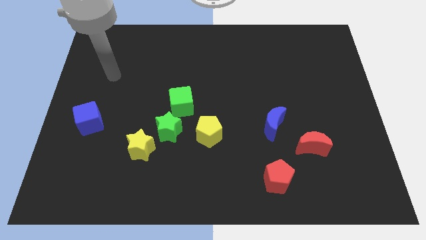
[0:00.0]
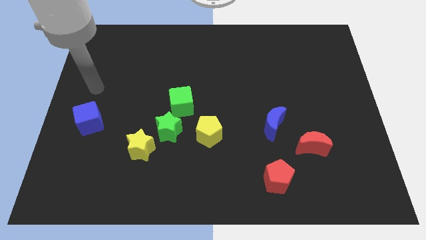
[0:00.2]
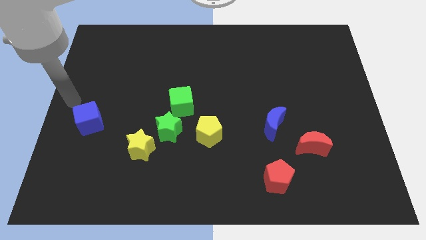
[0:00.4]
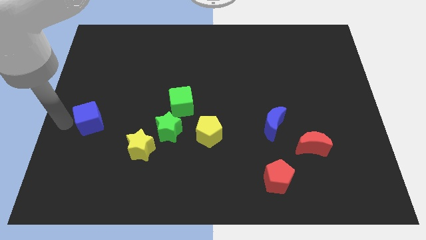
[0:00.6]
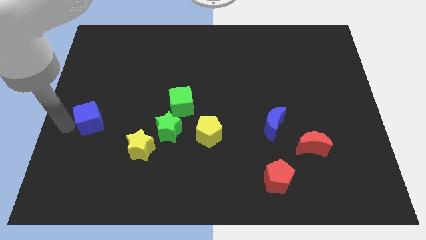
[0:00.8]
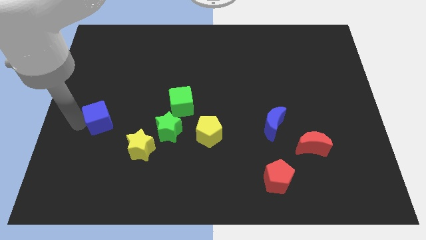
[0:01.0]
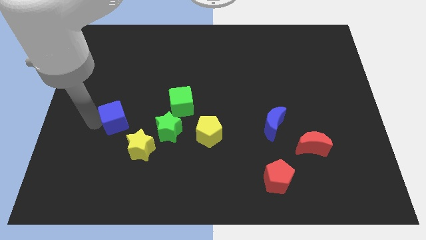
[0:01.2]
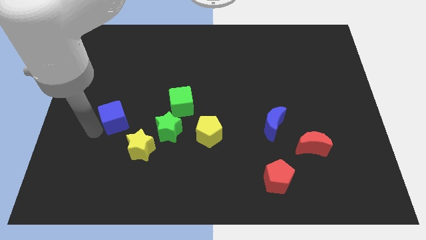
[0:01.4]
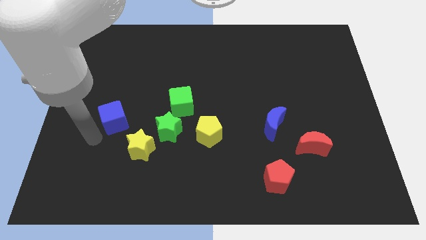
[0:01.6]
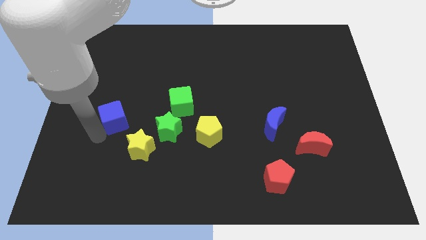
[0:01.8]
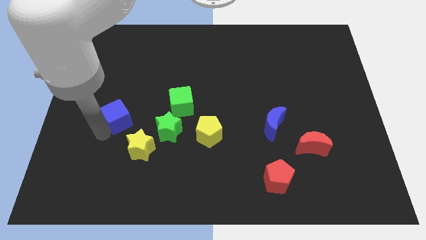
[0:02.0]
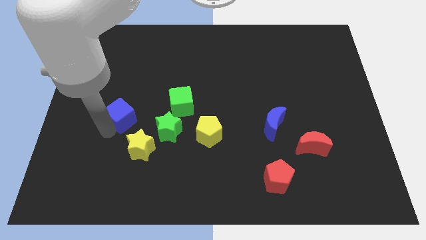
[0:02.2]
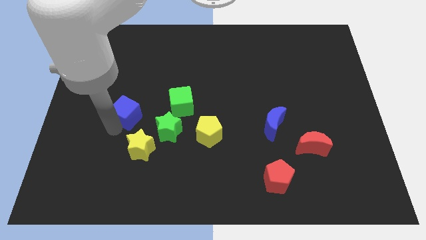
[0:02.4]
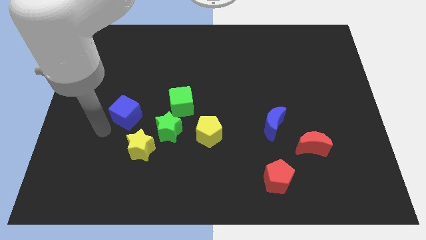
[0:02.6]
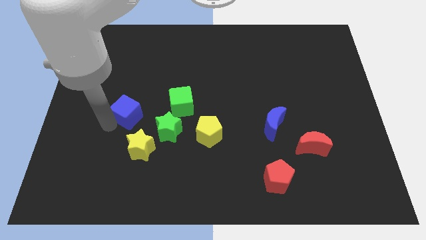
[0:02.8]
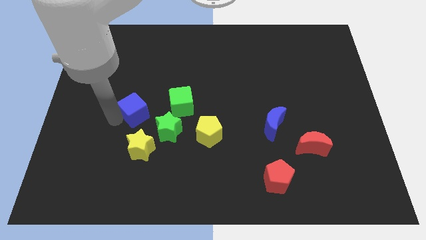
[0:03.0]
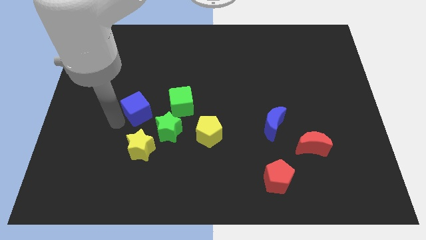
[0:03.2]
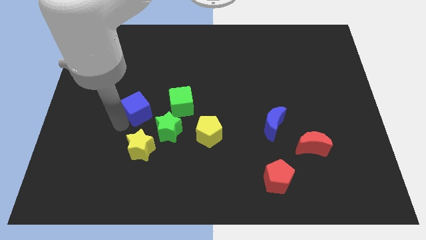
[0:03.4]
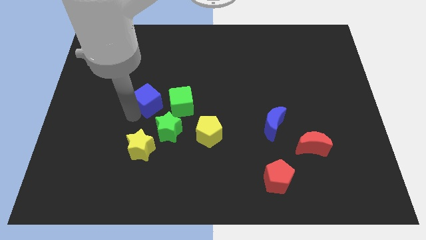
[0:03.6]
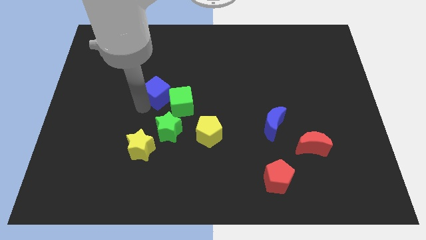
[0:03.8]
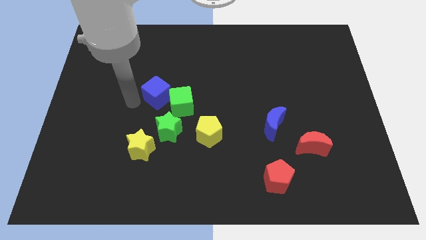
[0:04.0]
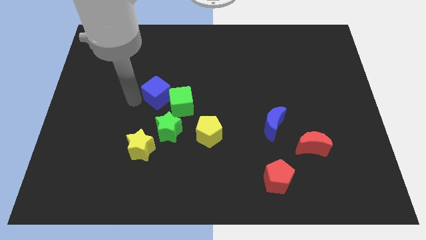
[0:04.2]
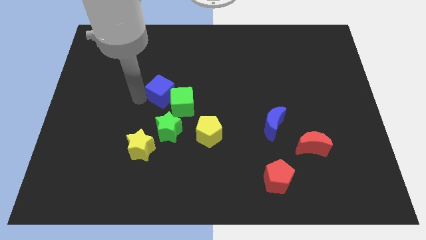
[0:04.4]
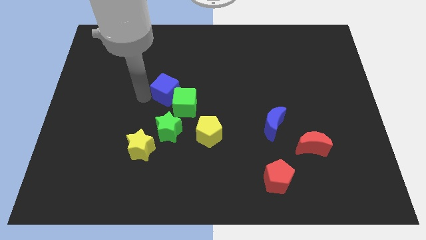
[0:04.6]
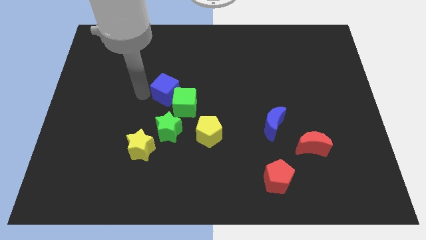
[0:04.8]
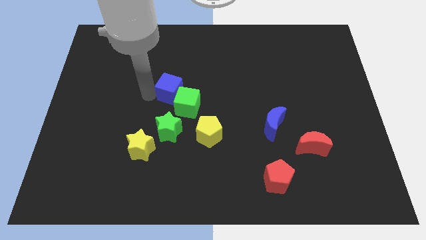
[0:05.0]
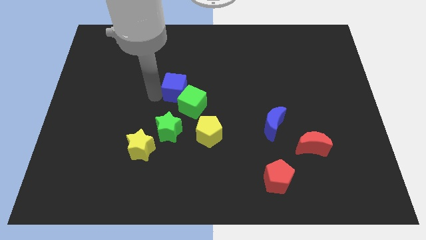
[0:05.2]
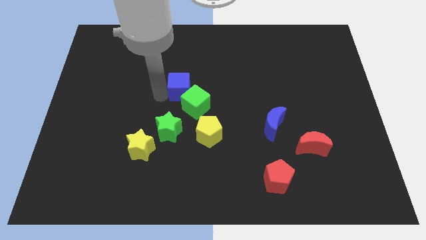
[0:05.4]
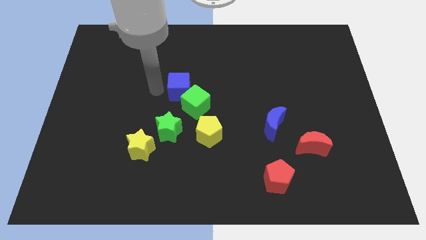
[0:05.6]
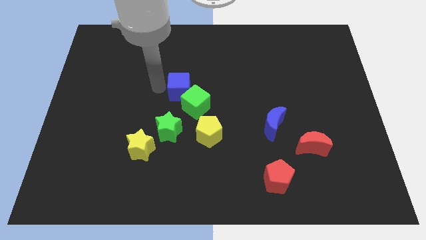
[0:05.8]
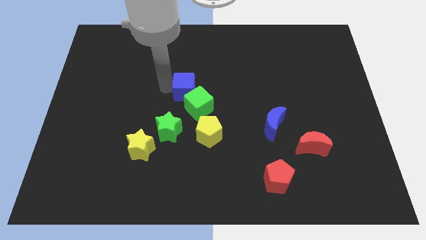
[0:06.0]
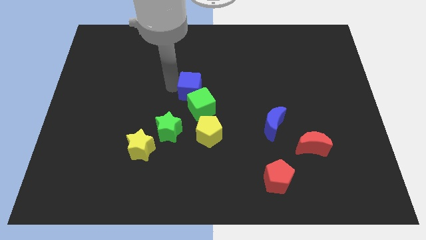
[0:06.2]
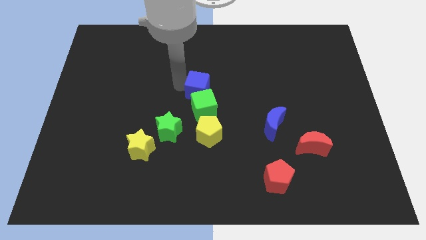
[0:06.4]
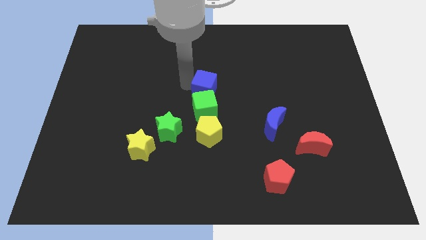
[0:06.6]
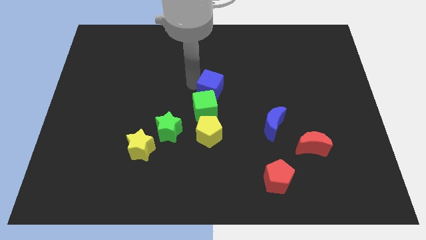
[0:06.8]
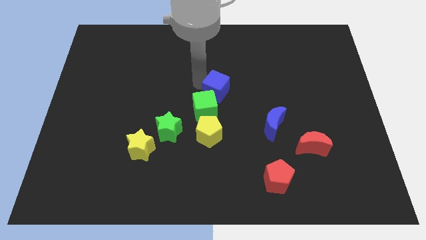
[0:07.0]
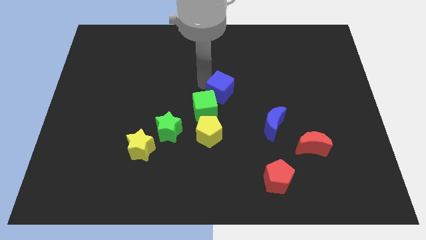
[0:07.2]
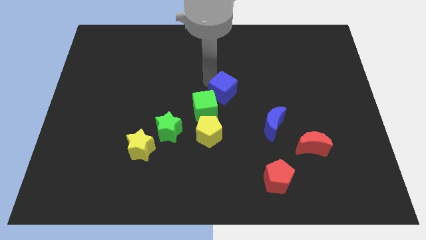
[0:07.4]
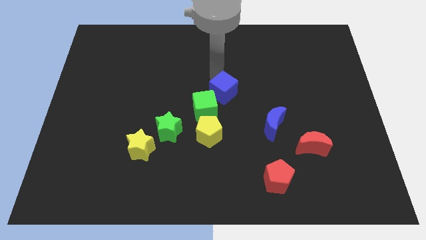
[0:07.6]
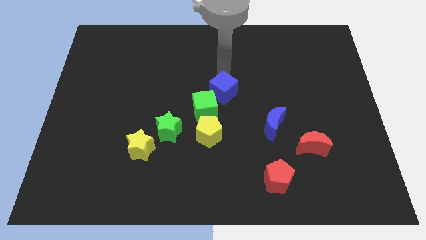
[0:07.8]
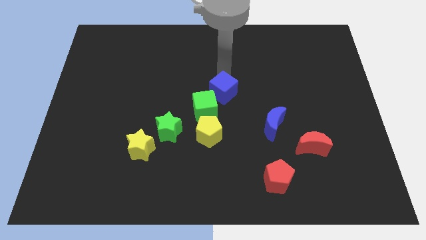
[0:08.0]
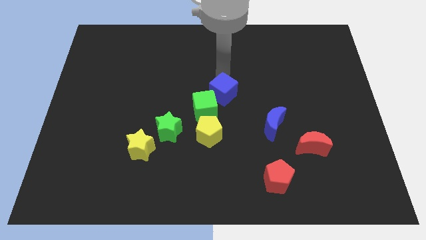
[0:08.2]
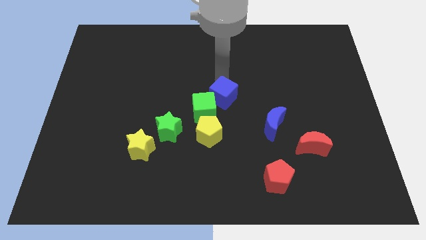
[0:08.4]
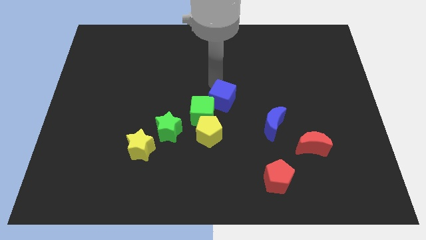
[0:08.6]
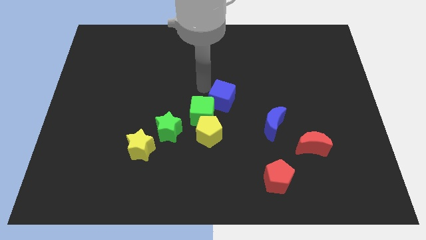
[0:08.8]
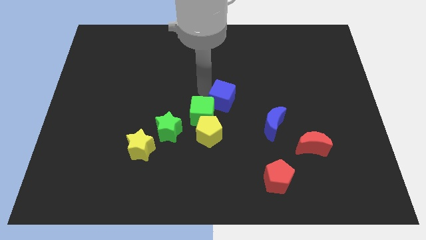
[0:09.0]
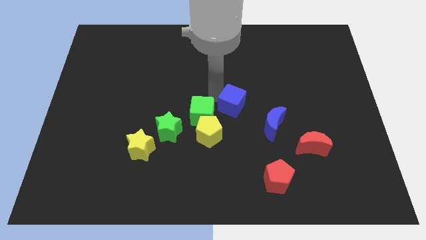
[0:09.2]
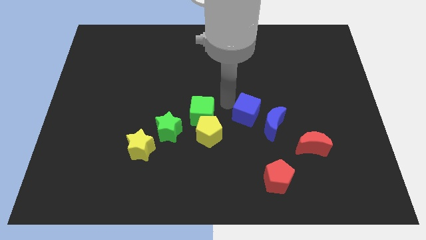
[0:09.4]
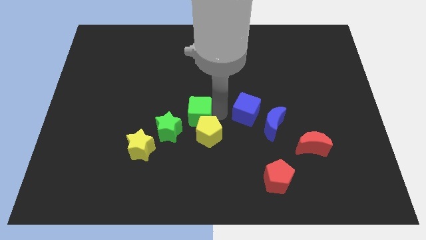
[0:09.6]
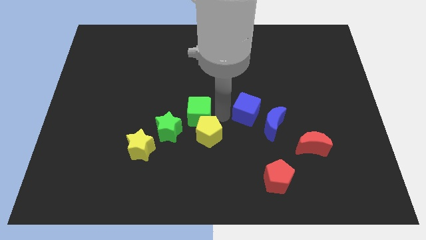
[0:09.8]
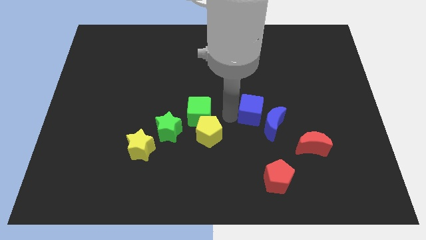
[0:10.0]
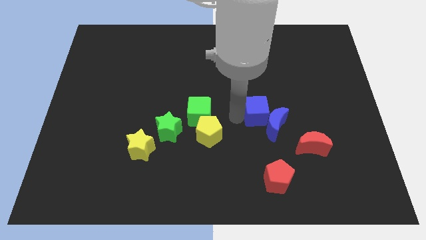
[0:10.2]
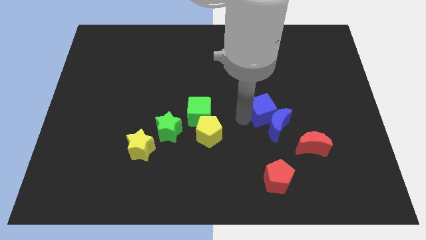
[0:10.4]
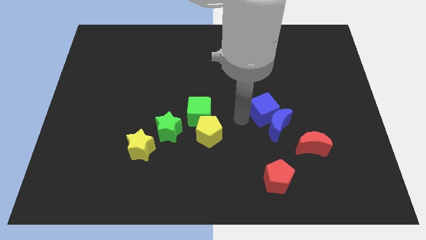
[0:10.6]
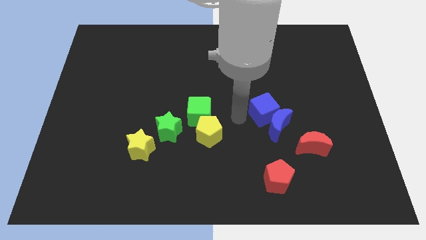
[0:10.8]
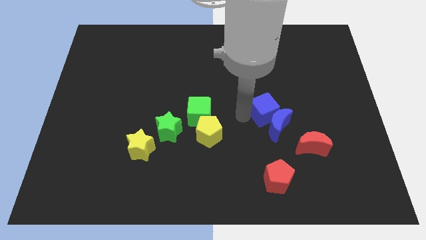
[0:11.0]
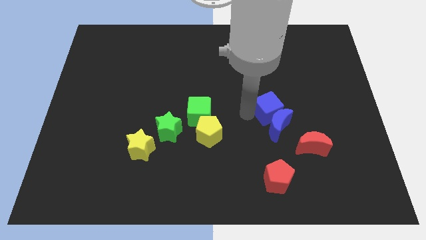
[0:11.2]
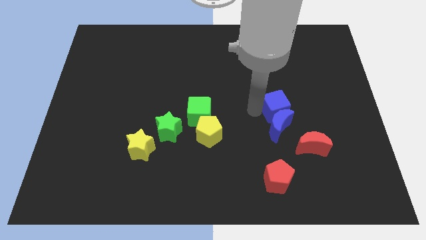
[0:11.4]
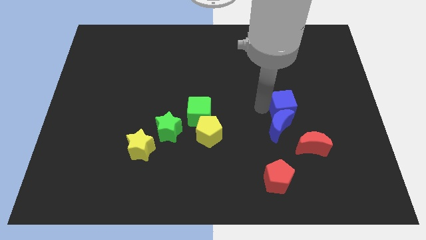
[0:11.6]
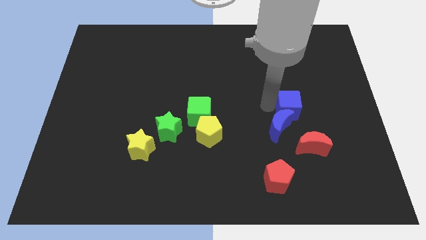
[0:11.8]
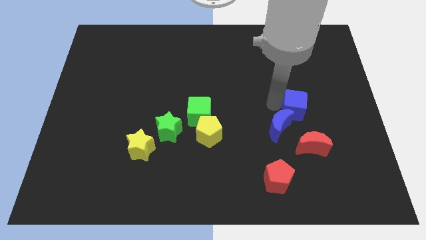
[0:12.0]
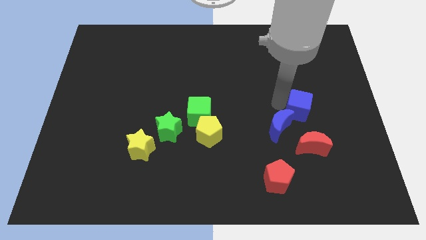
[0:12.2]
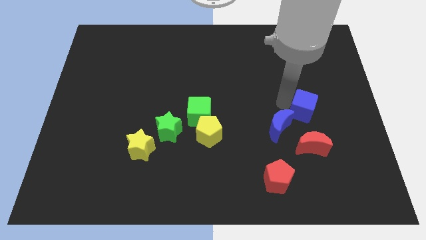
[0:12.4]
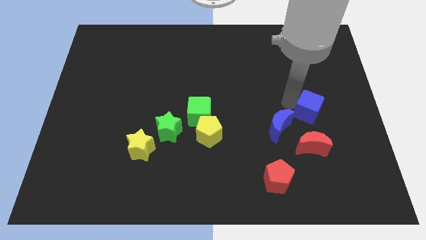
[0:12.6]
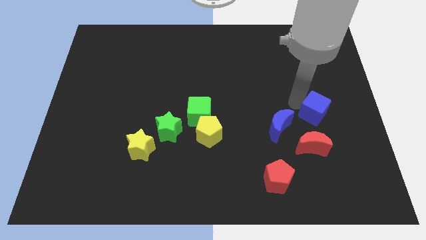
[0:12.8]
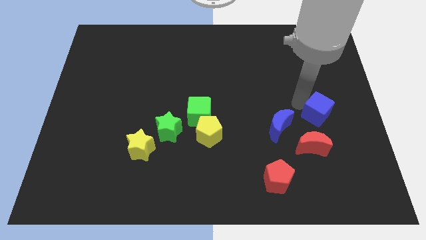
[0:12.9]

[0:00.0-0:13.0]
move the blue cube diagonally up and to the right of the red moon

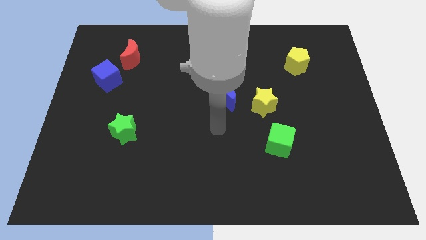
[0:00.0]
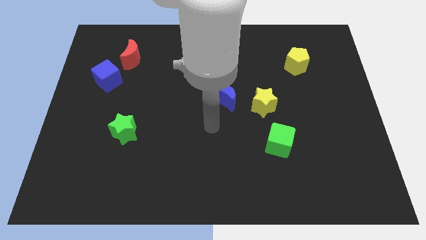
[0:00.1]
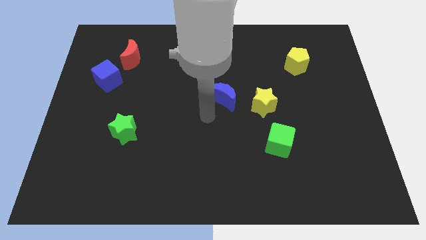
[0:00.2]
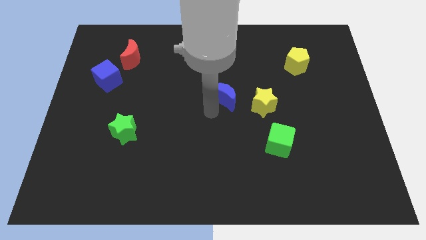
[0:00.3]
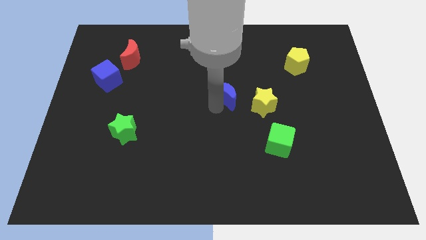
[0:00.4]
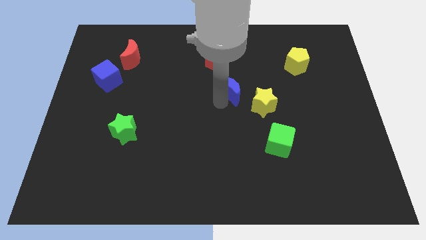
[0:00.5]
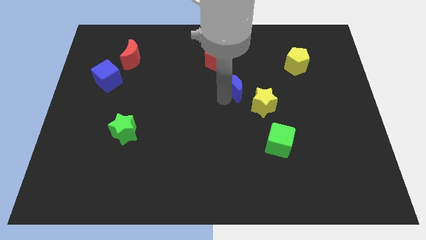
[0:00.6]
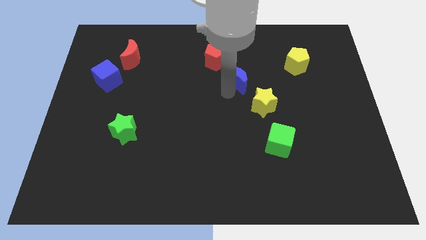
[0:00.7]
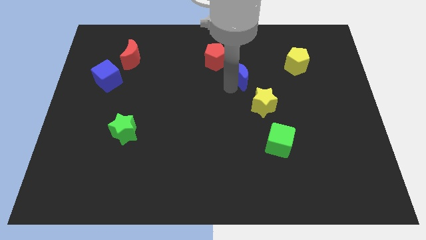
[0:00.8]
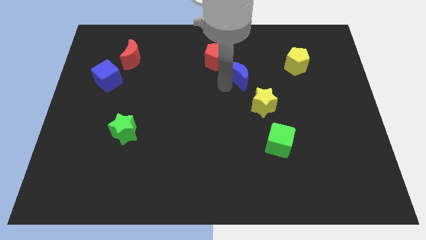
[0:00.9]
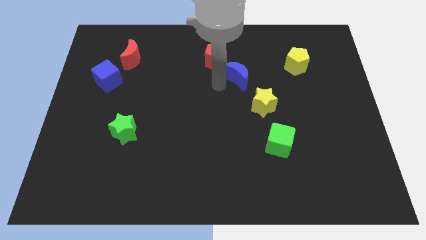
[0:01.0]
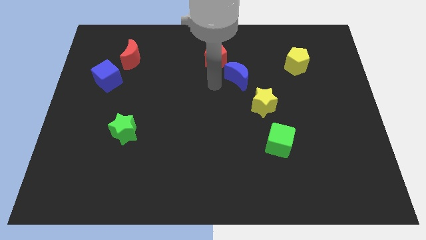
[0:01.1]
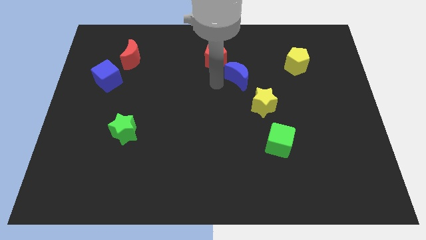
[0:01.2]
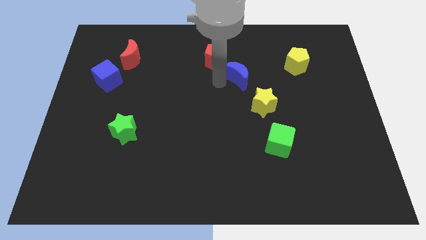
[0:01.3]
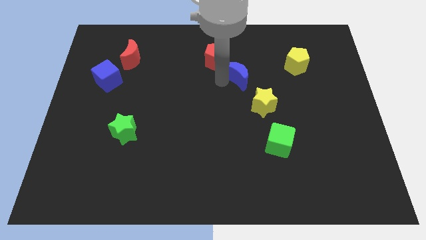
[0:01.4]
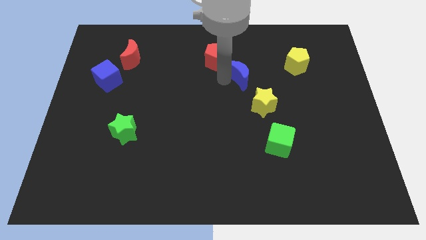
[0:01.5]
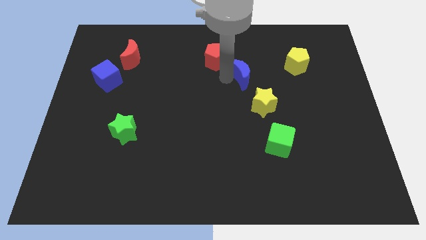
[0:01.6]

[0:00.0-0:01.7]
push the blue moon to the top side of the yellow star
